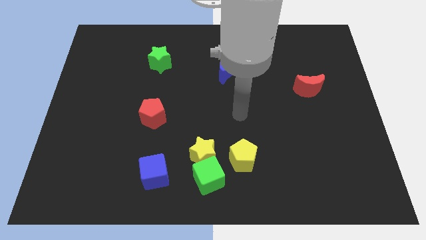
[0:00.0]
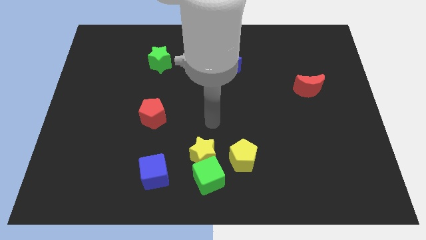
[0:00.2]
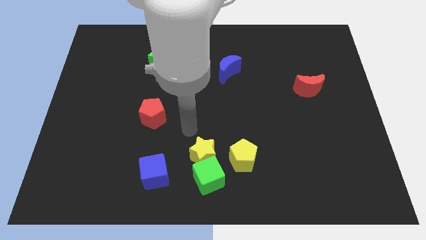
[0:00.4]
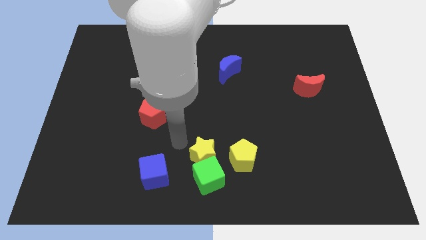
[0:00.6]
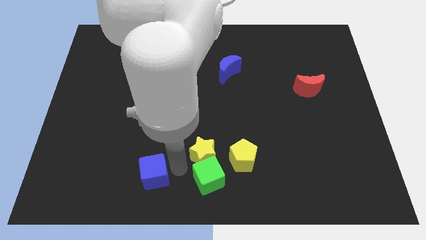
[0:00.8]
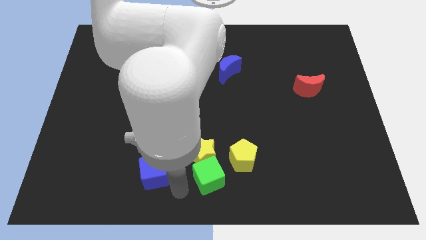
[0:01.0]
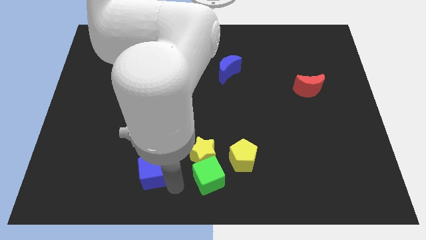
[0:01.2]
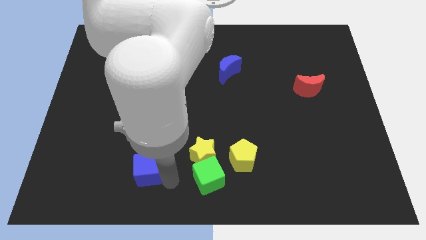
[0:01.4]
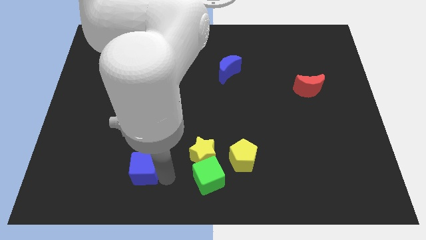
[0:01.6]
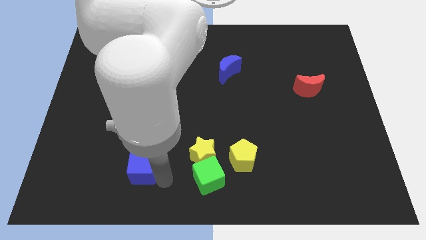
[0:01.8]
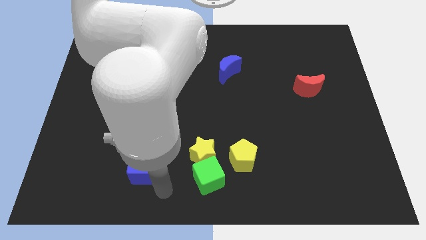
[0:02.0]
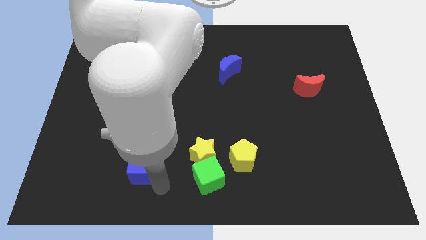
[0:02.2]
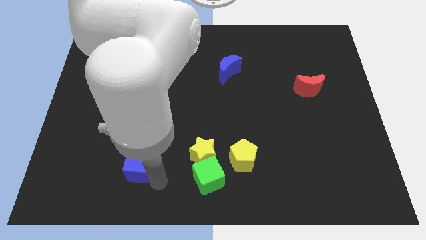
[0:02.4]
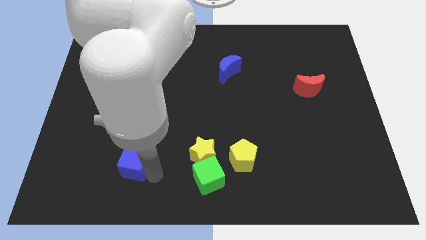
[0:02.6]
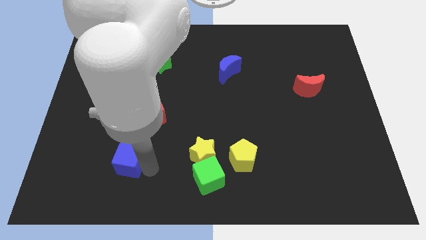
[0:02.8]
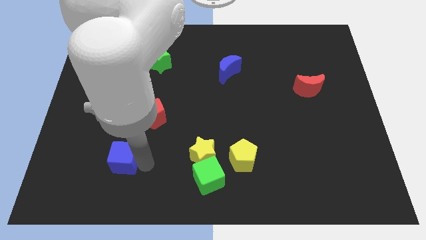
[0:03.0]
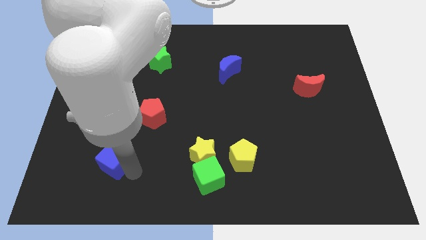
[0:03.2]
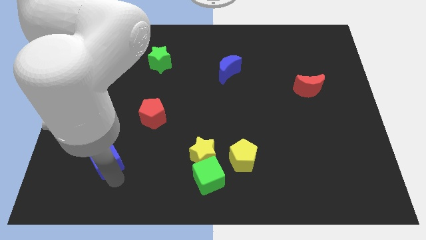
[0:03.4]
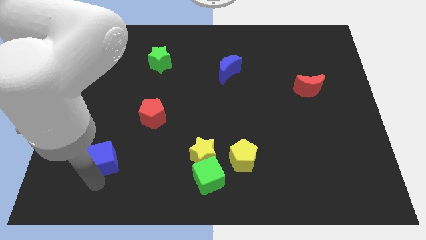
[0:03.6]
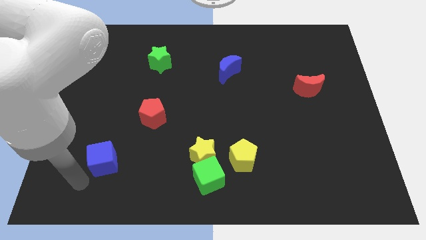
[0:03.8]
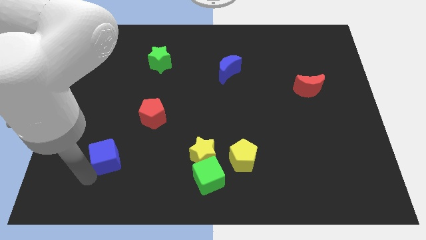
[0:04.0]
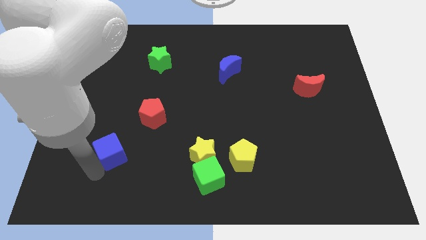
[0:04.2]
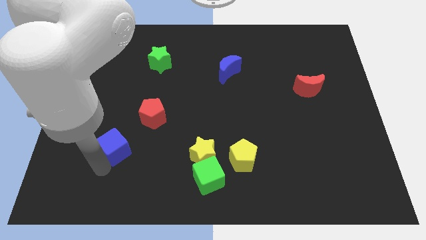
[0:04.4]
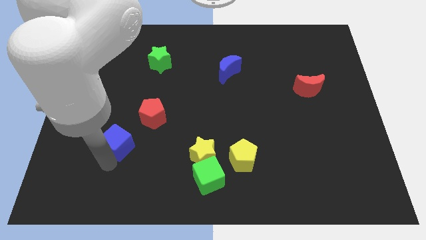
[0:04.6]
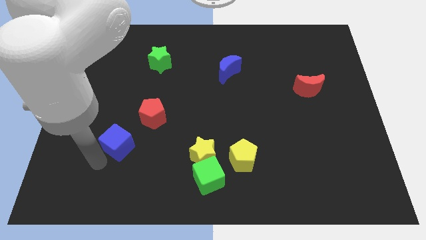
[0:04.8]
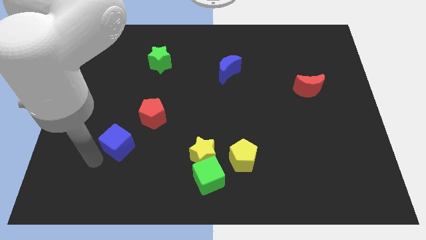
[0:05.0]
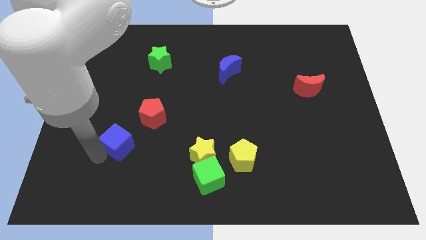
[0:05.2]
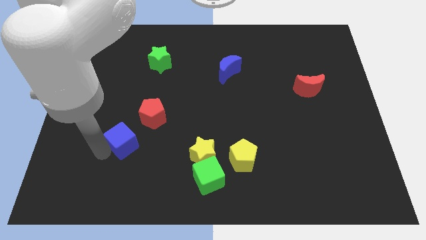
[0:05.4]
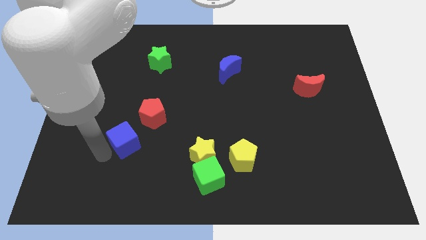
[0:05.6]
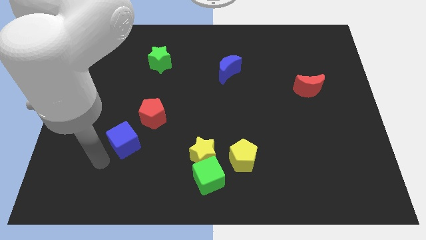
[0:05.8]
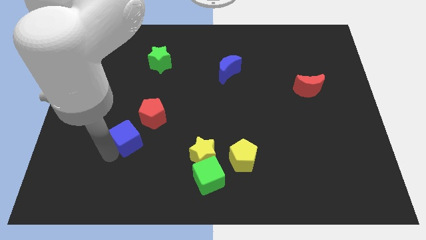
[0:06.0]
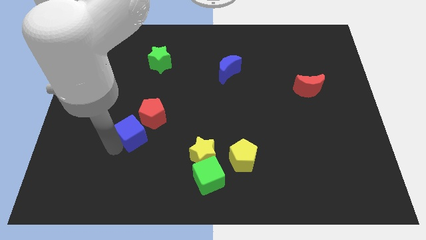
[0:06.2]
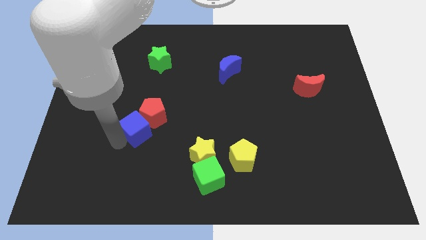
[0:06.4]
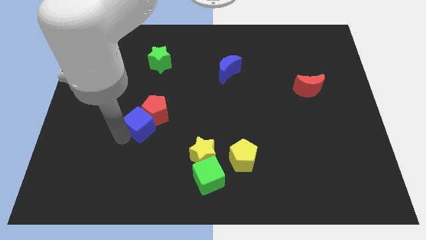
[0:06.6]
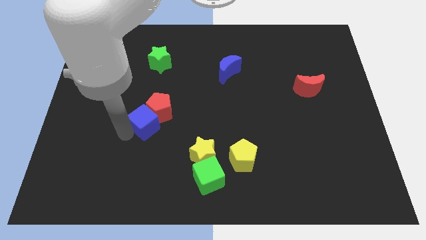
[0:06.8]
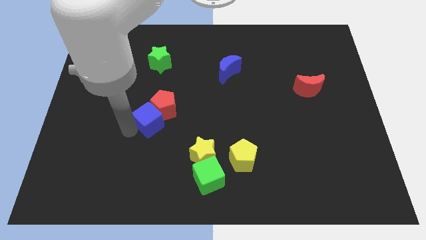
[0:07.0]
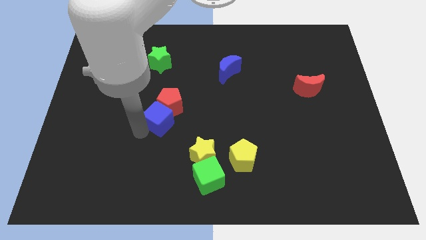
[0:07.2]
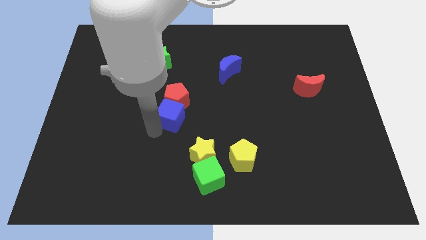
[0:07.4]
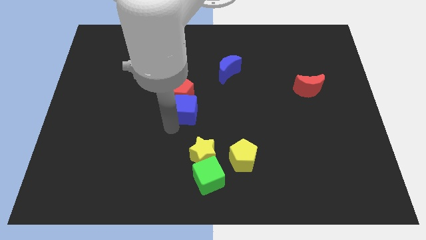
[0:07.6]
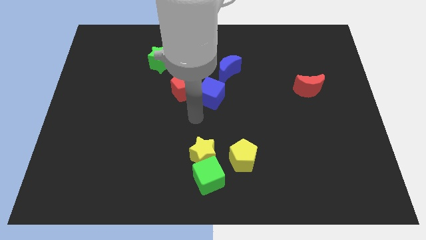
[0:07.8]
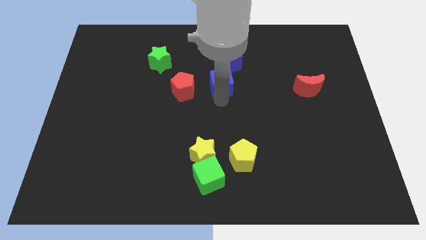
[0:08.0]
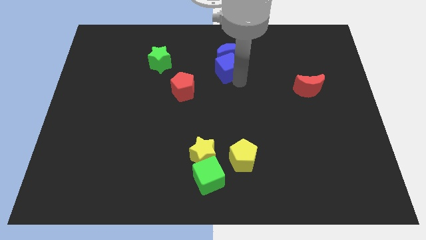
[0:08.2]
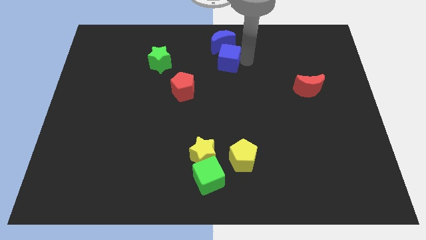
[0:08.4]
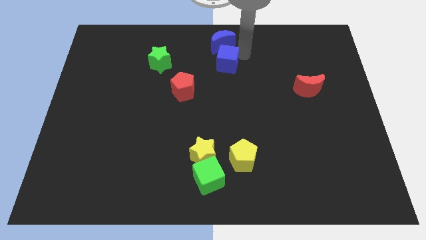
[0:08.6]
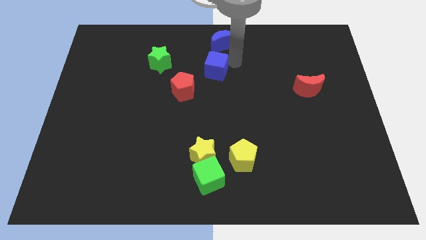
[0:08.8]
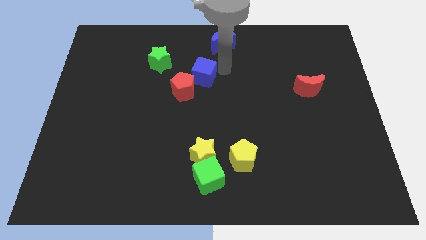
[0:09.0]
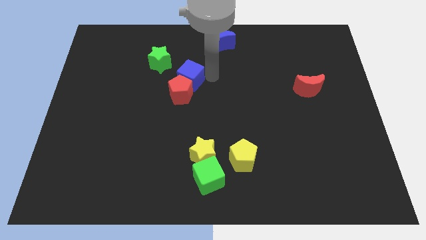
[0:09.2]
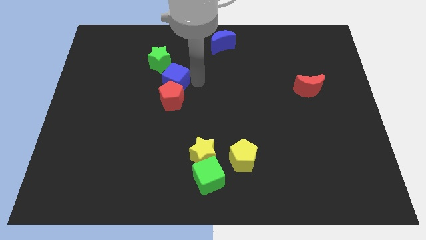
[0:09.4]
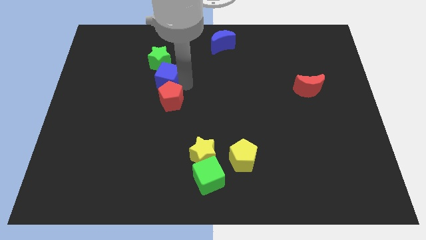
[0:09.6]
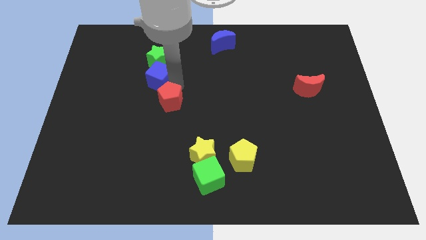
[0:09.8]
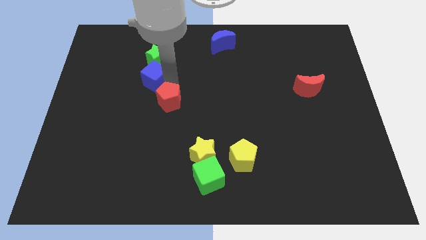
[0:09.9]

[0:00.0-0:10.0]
put the blue cube diagonally down and to the left of the green star

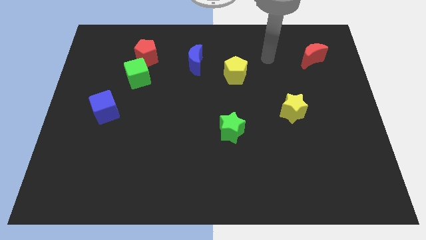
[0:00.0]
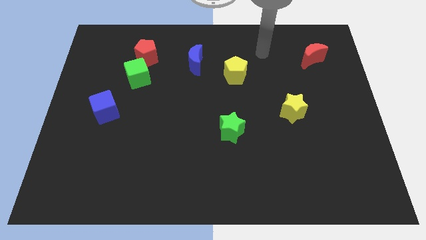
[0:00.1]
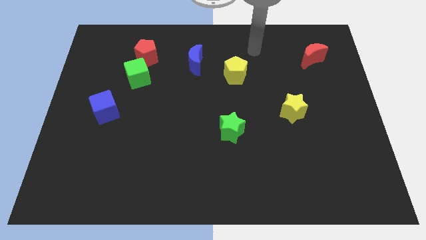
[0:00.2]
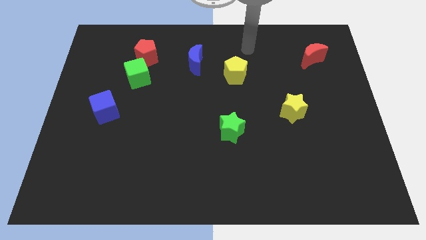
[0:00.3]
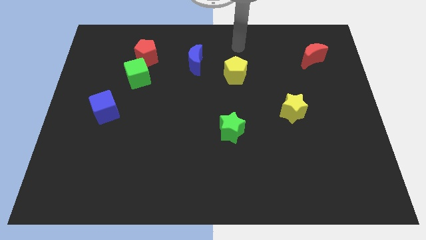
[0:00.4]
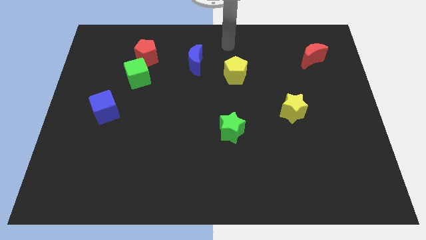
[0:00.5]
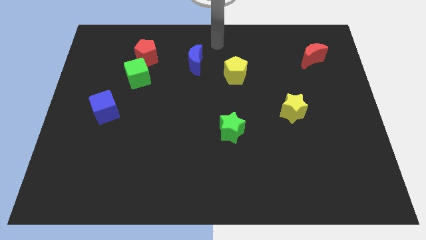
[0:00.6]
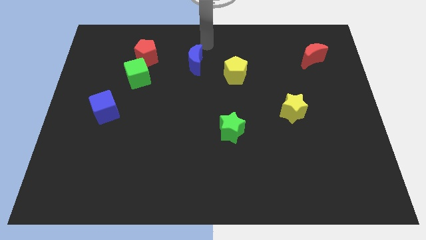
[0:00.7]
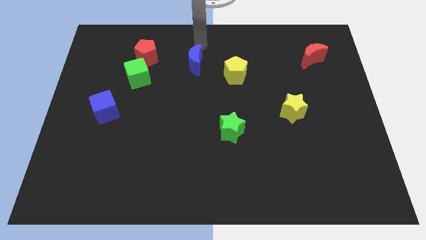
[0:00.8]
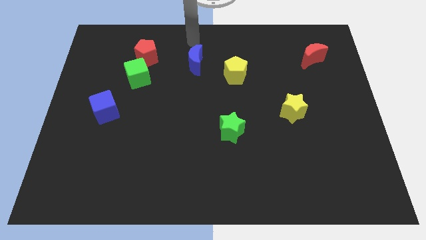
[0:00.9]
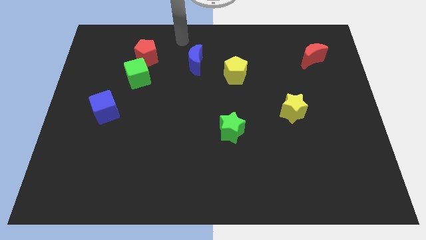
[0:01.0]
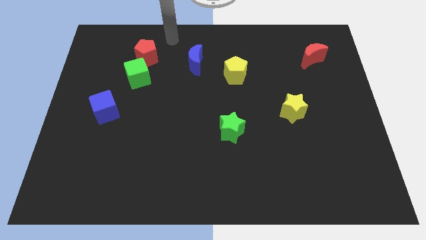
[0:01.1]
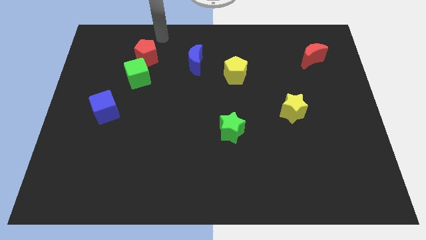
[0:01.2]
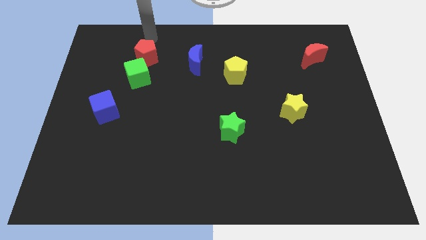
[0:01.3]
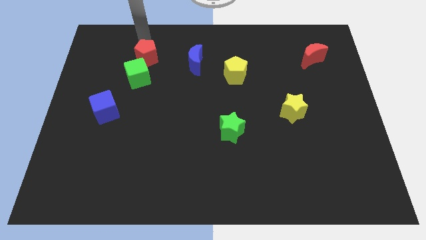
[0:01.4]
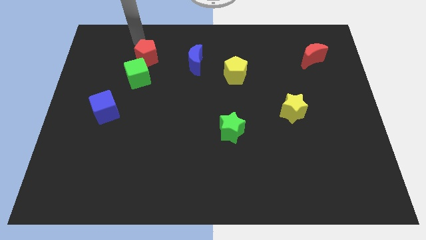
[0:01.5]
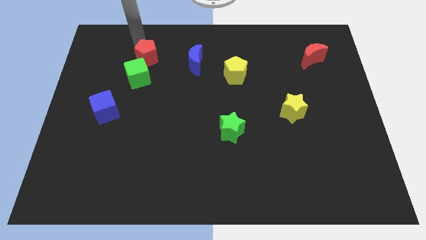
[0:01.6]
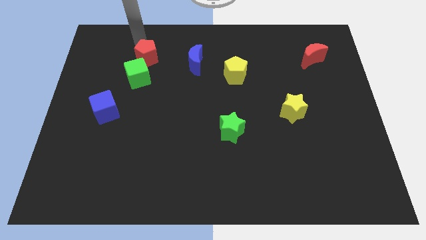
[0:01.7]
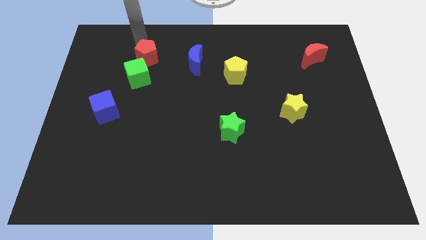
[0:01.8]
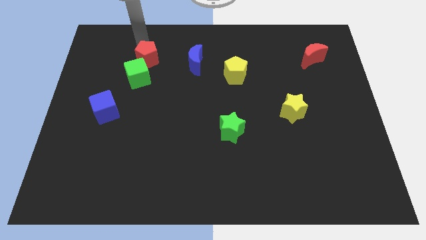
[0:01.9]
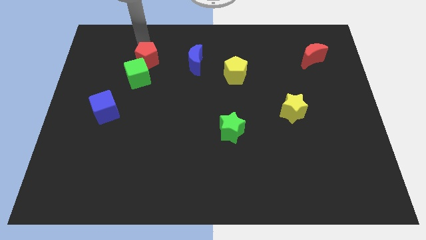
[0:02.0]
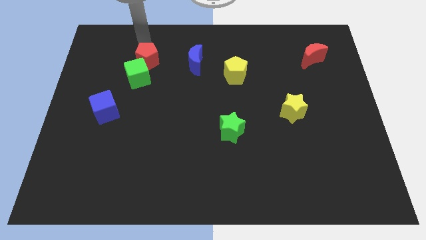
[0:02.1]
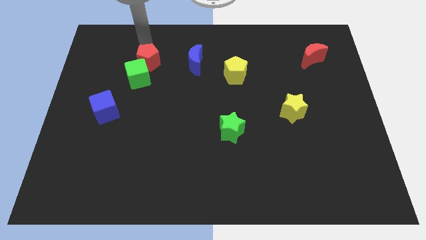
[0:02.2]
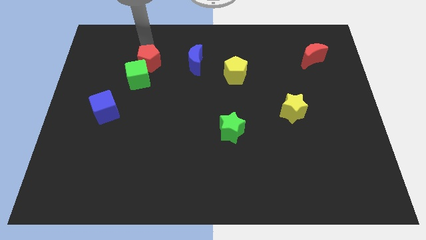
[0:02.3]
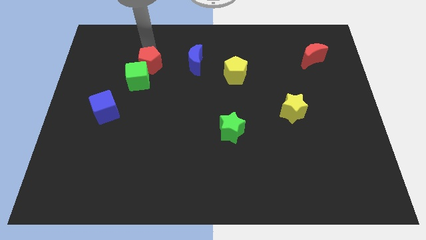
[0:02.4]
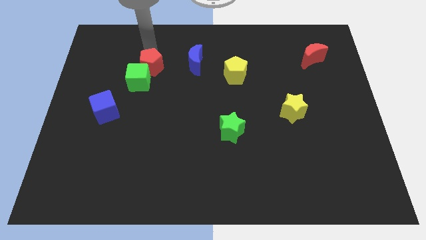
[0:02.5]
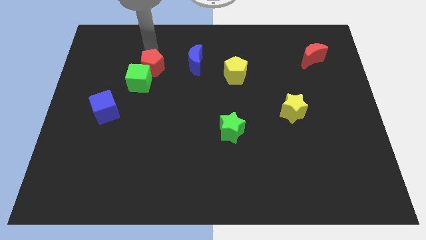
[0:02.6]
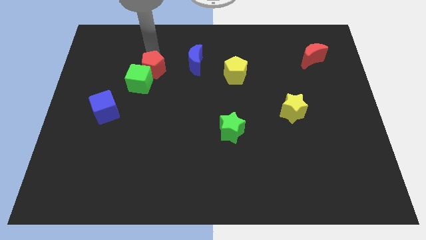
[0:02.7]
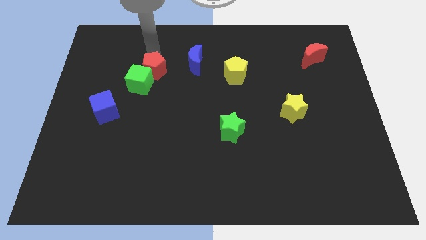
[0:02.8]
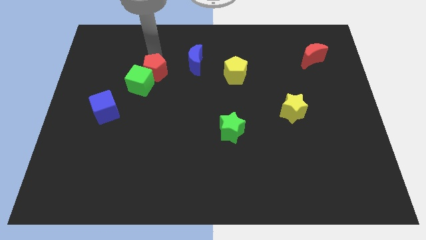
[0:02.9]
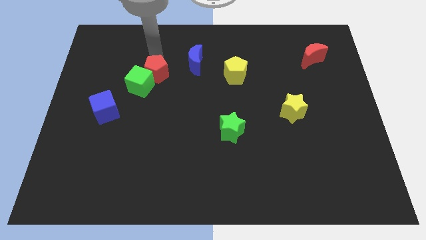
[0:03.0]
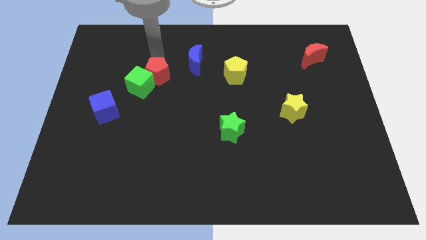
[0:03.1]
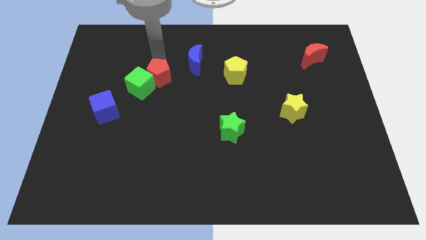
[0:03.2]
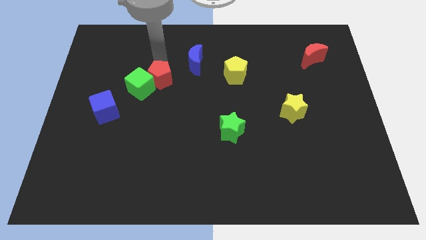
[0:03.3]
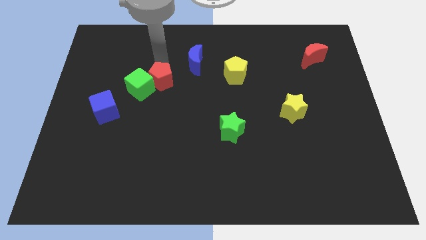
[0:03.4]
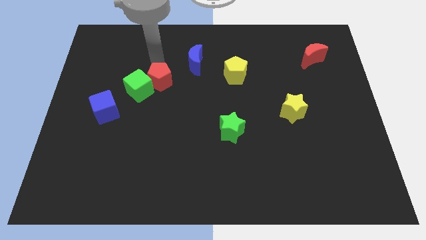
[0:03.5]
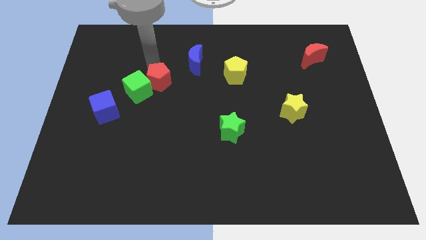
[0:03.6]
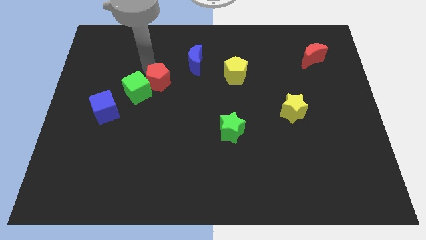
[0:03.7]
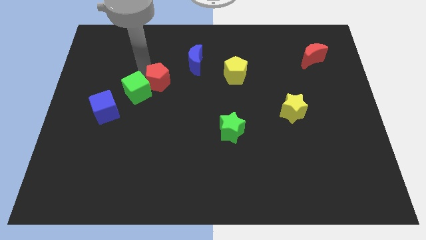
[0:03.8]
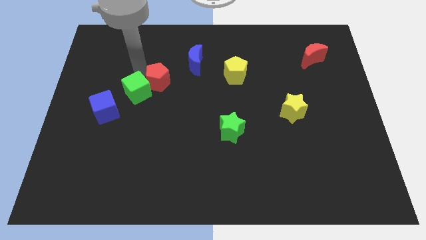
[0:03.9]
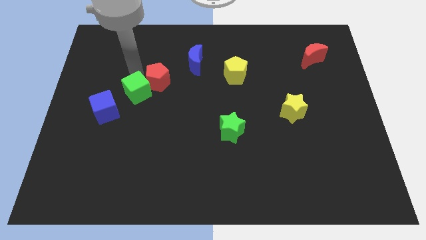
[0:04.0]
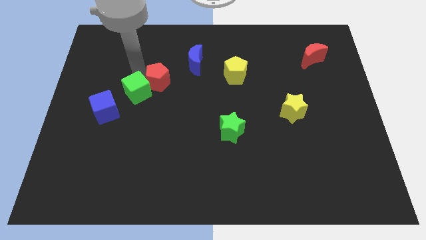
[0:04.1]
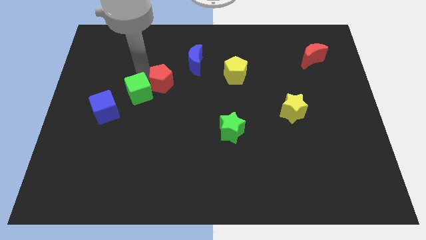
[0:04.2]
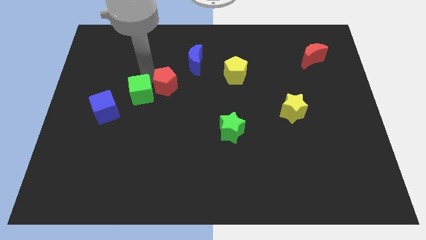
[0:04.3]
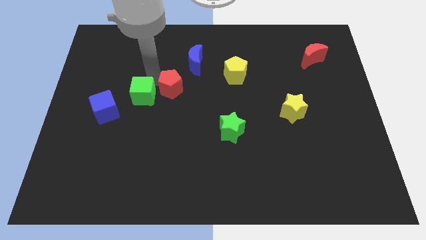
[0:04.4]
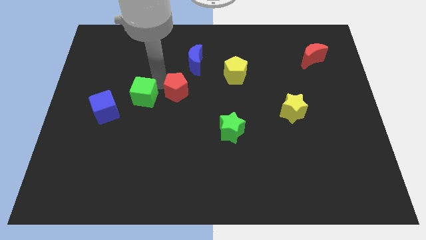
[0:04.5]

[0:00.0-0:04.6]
slide the red pentagon to the bottom side of the blue moon
